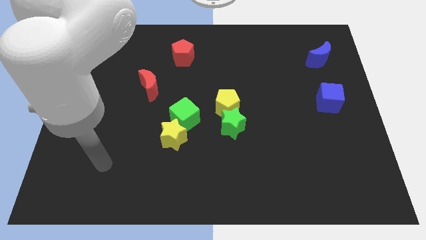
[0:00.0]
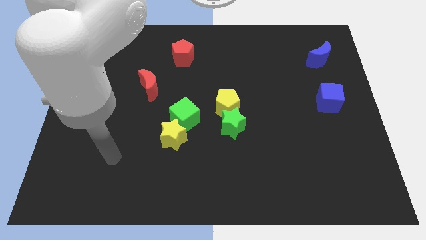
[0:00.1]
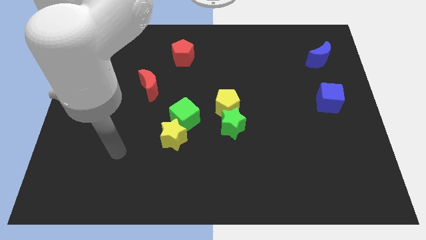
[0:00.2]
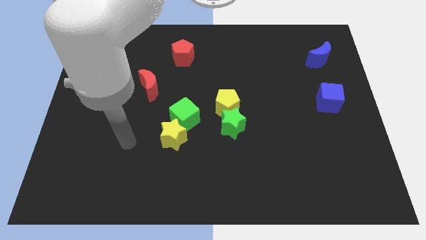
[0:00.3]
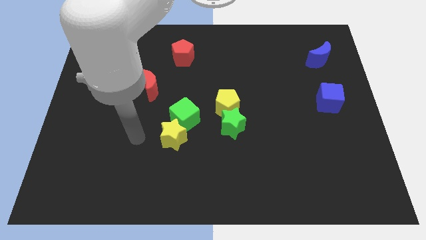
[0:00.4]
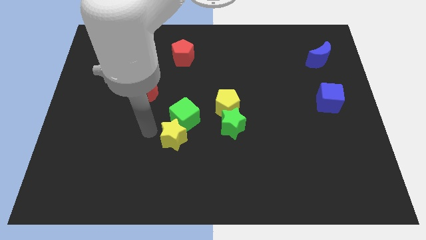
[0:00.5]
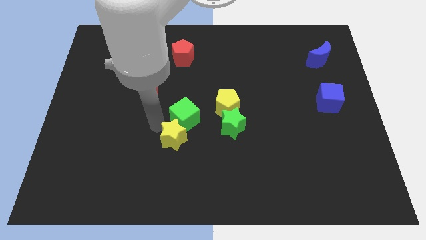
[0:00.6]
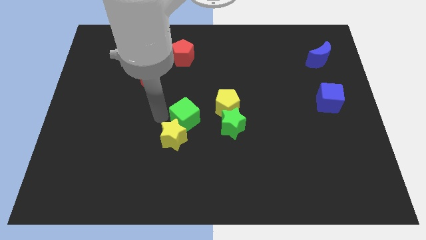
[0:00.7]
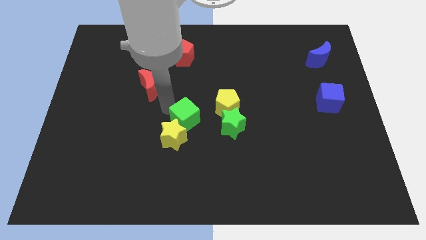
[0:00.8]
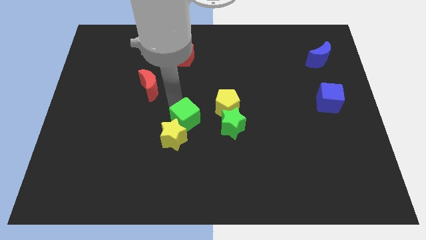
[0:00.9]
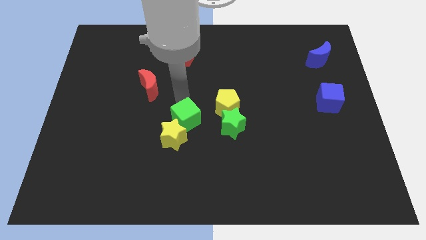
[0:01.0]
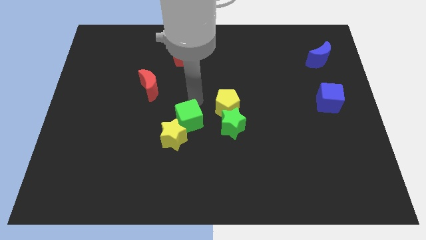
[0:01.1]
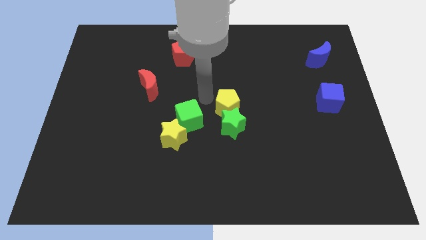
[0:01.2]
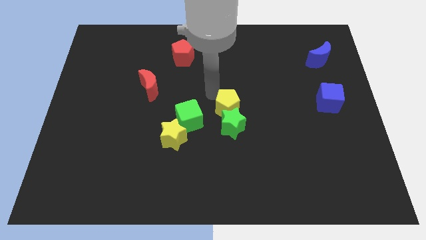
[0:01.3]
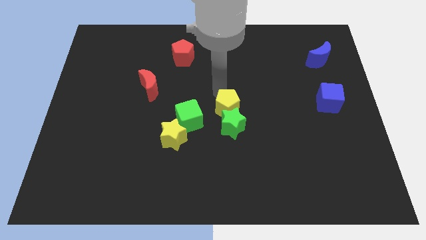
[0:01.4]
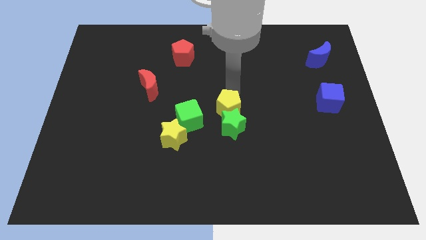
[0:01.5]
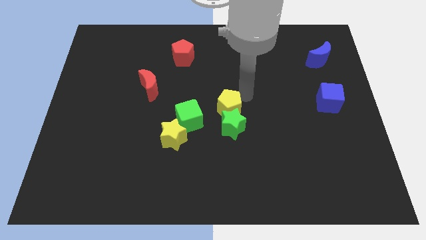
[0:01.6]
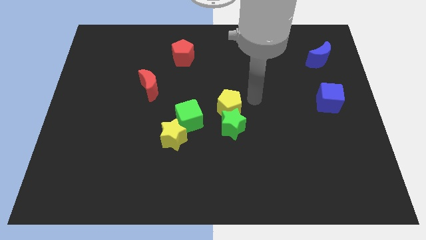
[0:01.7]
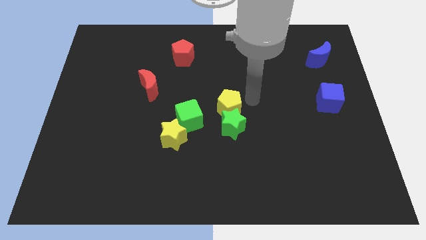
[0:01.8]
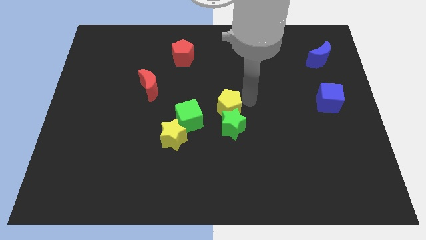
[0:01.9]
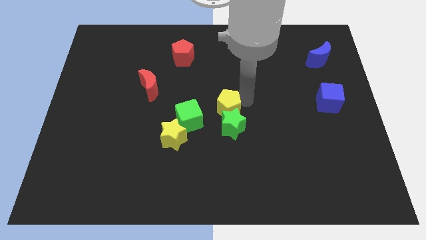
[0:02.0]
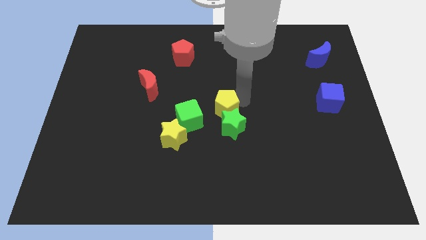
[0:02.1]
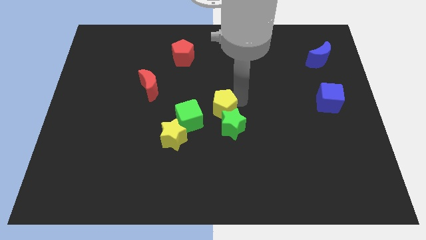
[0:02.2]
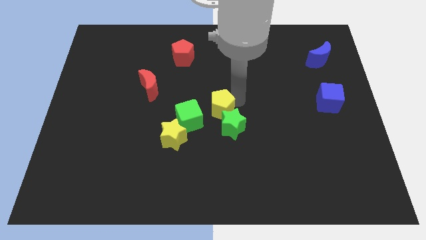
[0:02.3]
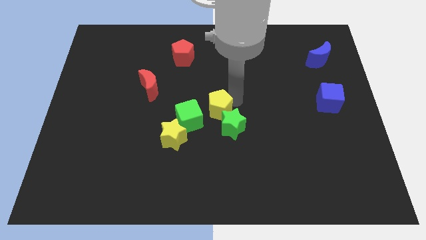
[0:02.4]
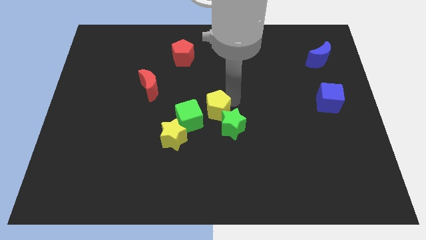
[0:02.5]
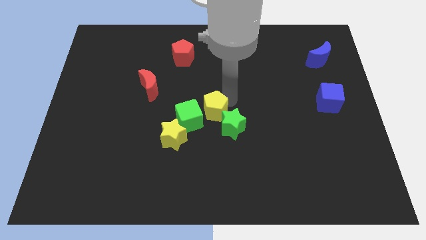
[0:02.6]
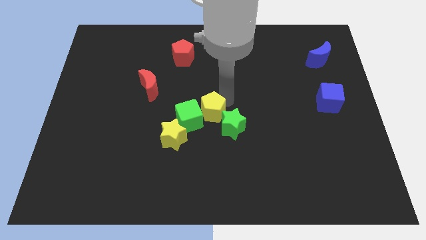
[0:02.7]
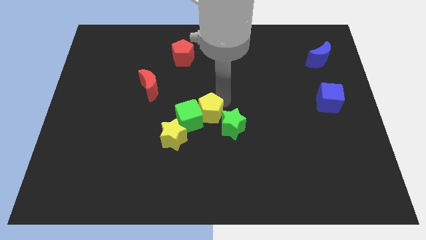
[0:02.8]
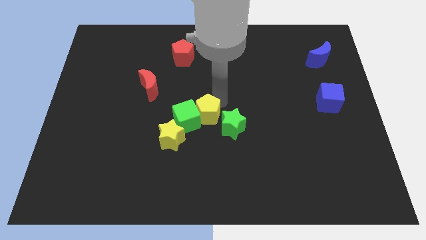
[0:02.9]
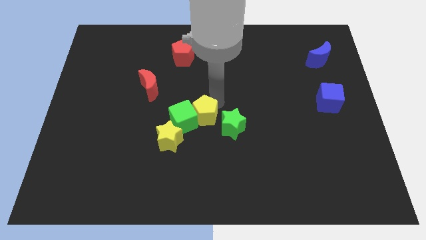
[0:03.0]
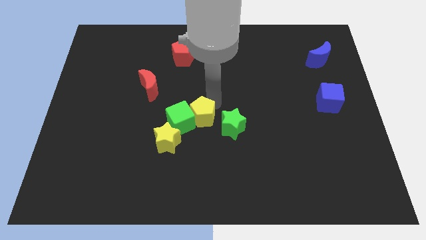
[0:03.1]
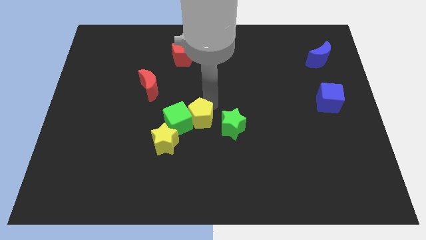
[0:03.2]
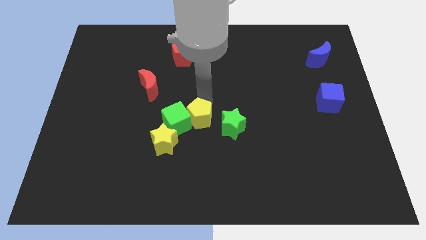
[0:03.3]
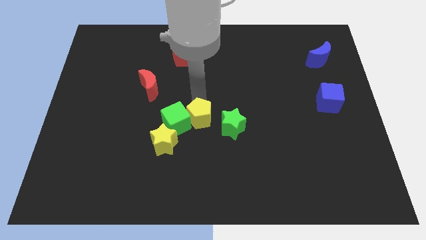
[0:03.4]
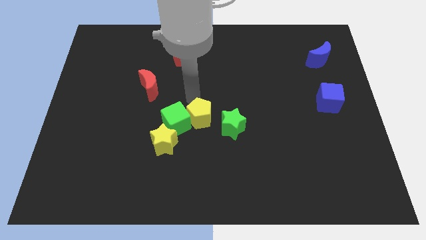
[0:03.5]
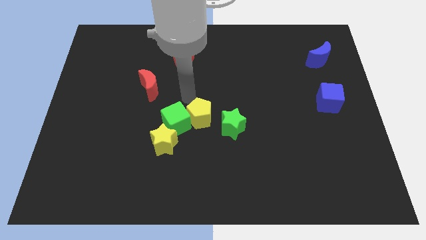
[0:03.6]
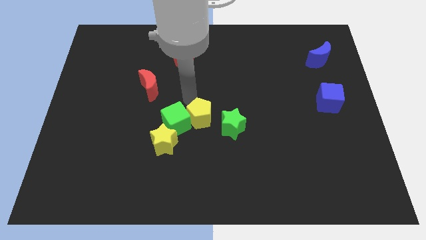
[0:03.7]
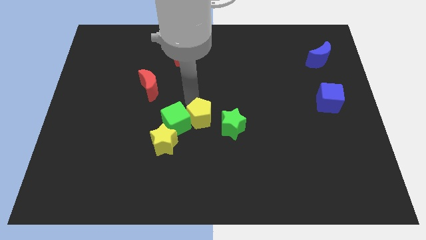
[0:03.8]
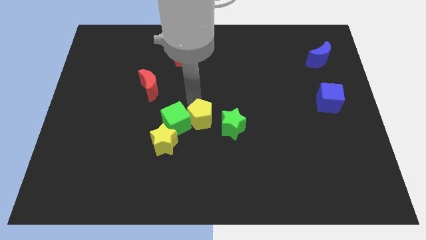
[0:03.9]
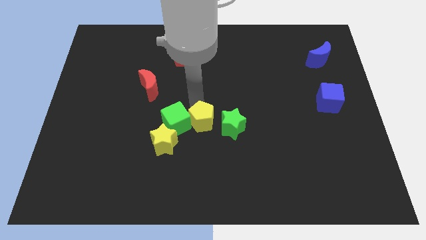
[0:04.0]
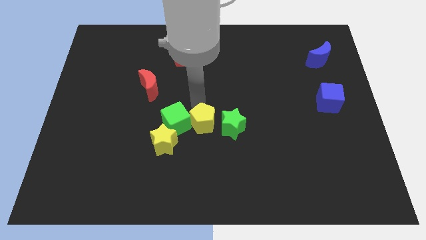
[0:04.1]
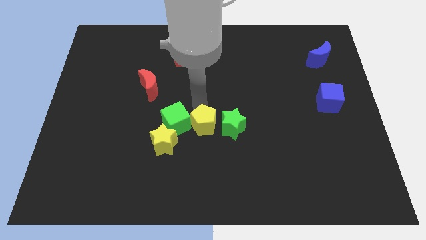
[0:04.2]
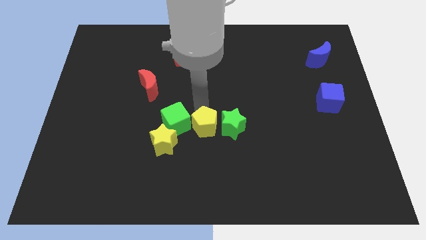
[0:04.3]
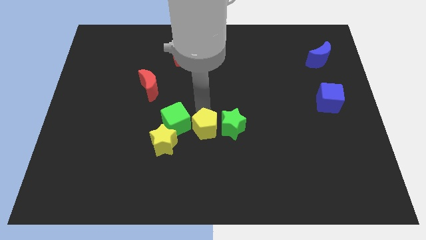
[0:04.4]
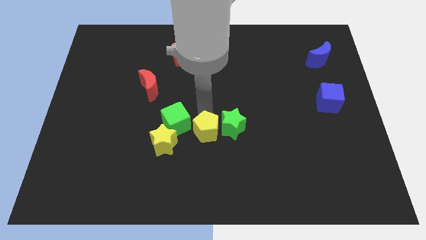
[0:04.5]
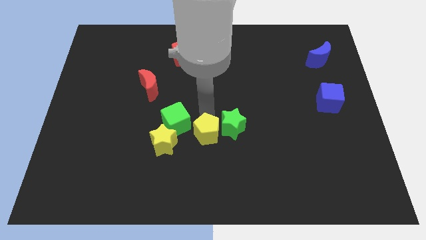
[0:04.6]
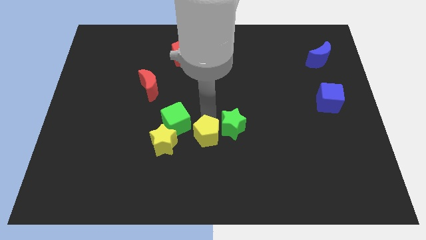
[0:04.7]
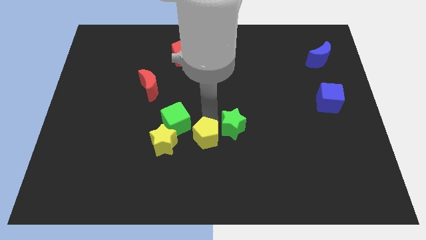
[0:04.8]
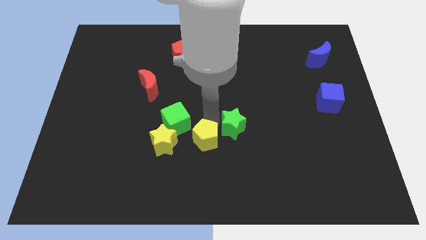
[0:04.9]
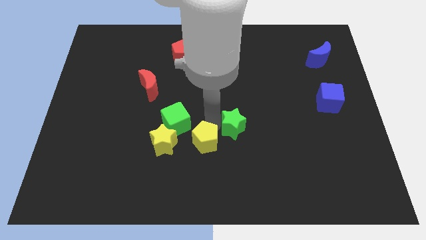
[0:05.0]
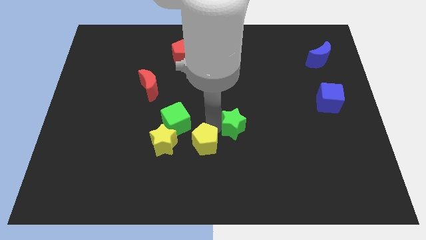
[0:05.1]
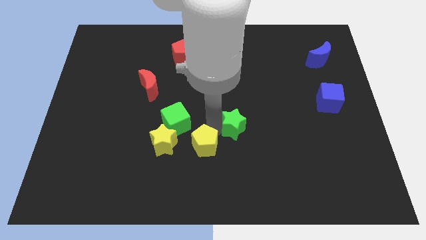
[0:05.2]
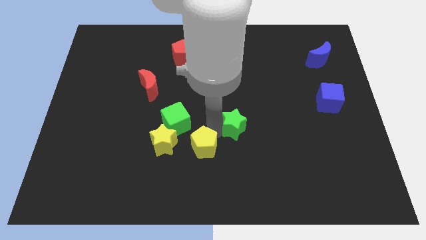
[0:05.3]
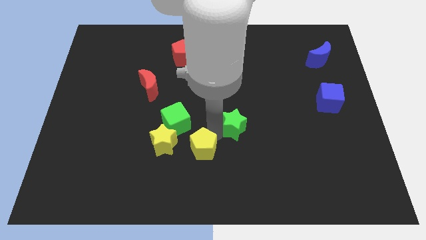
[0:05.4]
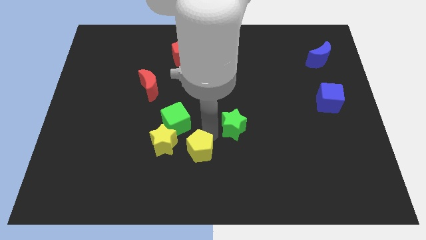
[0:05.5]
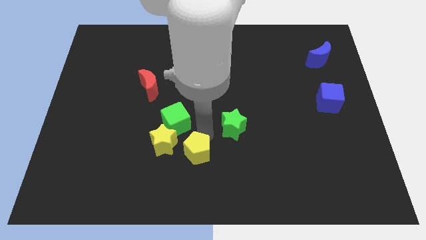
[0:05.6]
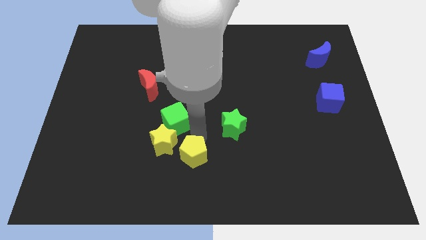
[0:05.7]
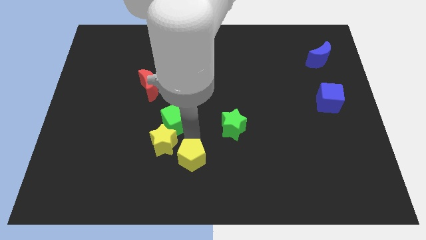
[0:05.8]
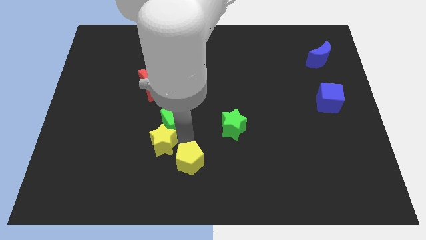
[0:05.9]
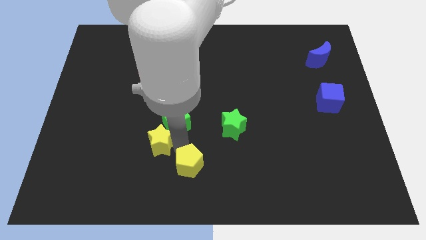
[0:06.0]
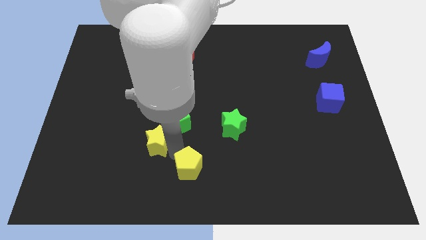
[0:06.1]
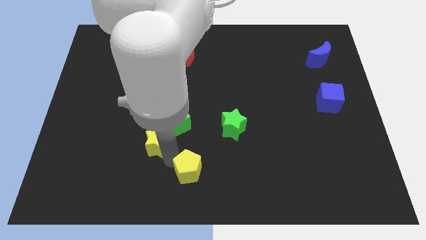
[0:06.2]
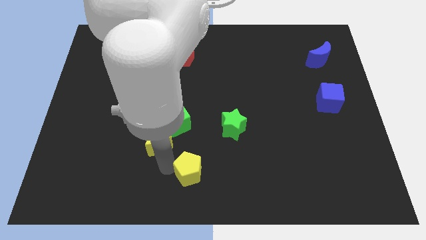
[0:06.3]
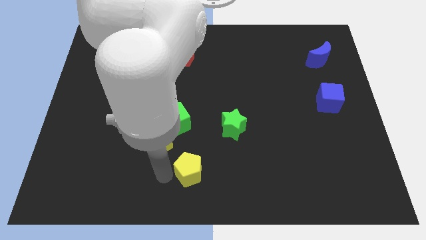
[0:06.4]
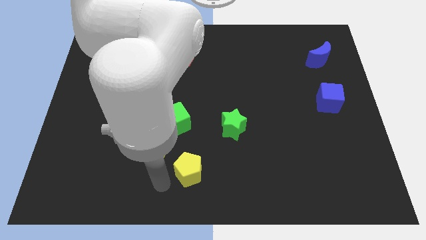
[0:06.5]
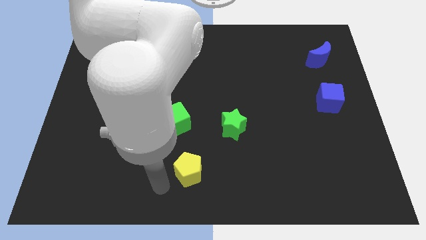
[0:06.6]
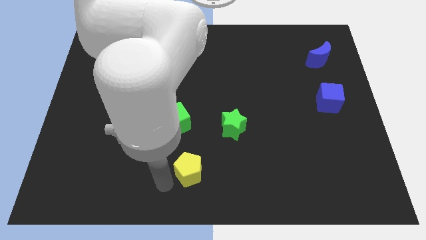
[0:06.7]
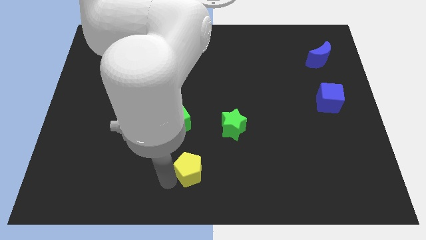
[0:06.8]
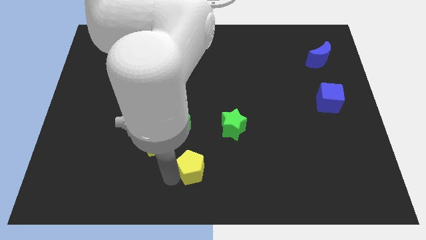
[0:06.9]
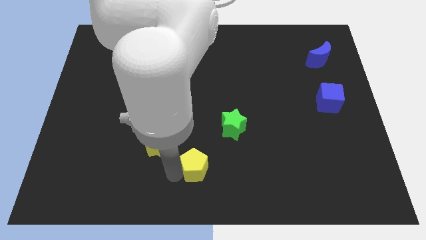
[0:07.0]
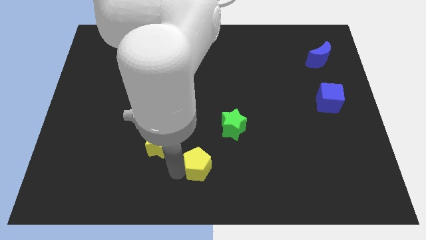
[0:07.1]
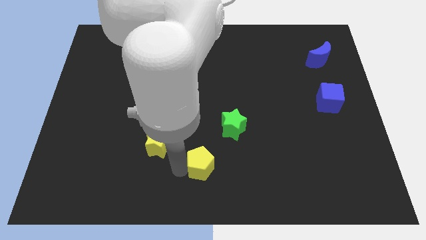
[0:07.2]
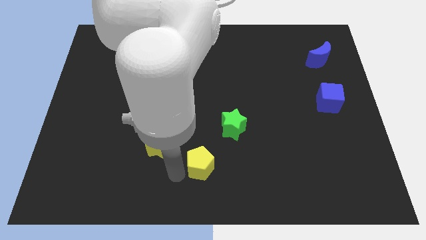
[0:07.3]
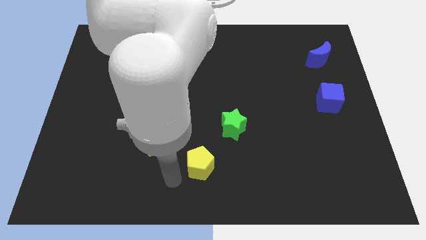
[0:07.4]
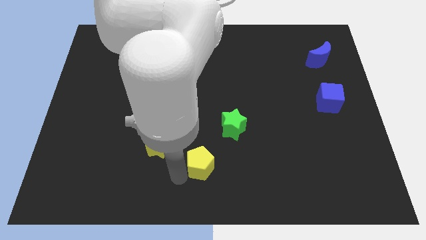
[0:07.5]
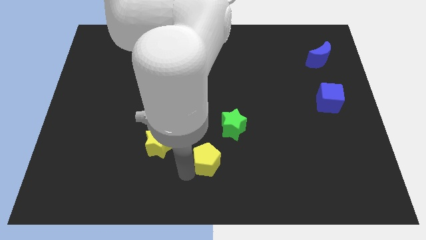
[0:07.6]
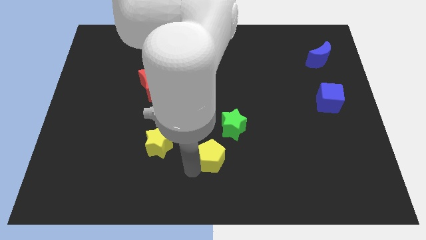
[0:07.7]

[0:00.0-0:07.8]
move the yellow pentagon to the bottom of the green star
